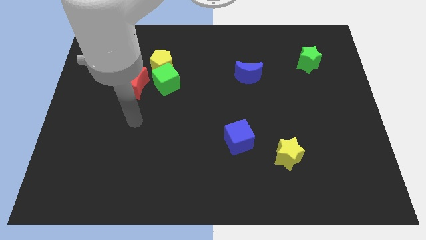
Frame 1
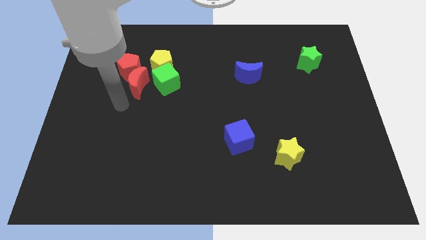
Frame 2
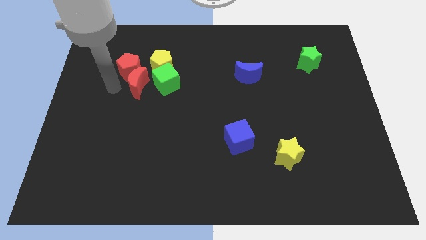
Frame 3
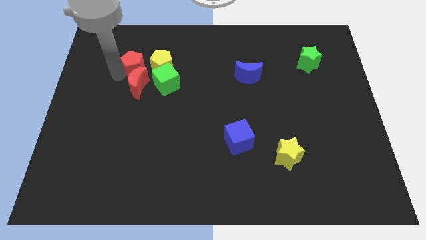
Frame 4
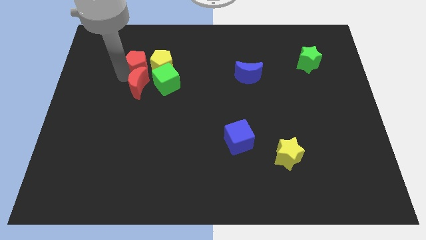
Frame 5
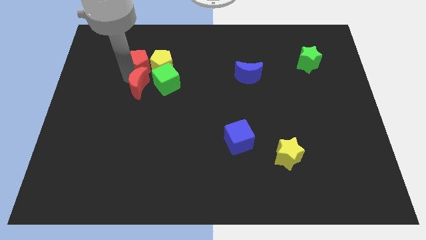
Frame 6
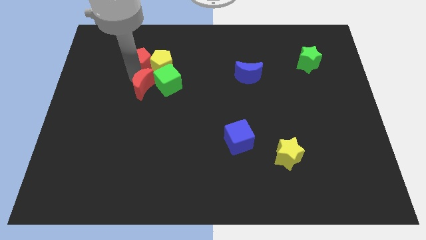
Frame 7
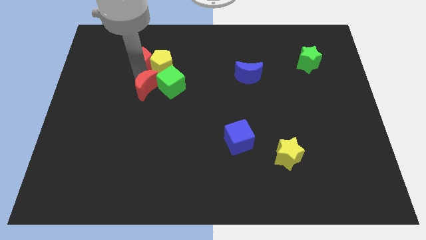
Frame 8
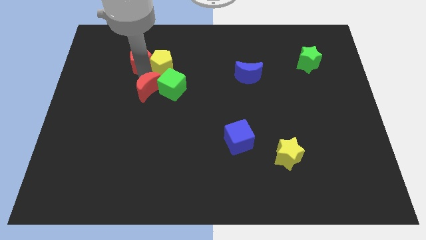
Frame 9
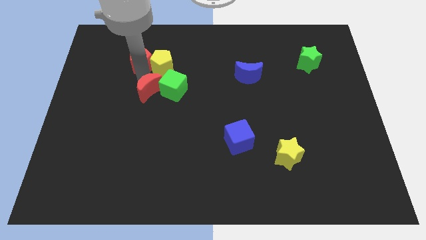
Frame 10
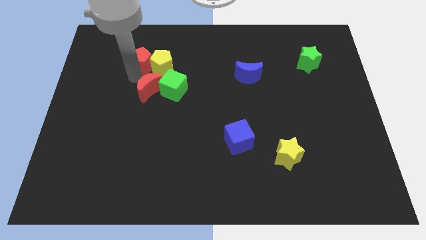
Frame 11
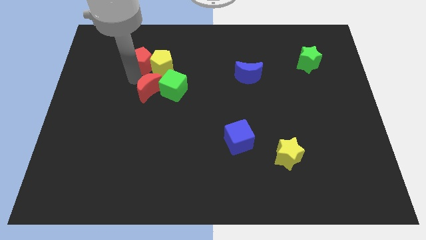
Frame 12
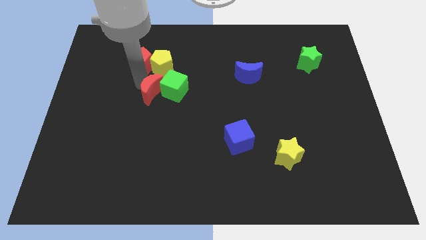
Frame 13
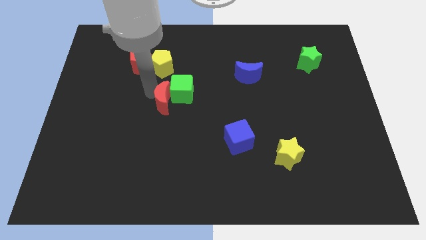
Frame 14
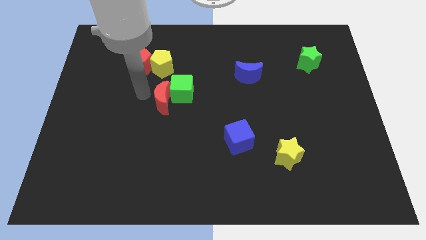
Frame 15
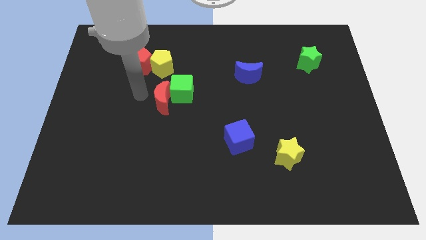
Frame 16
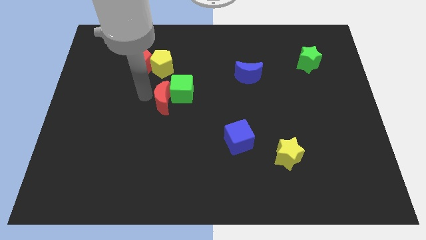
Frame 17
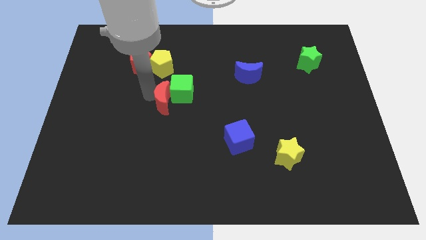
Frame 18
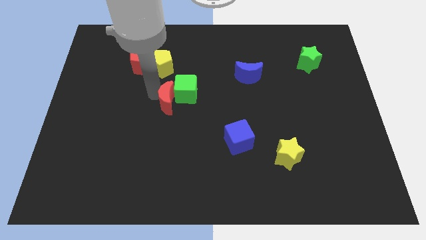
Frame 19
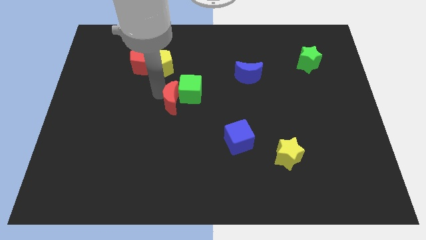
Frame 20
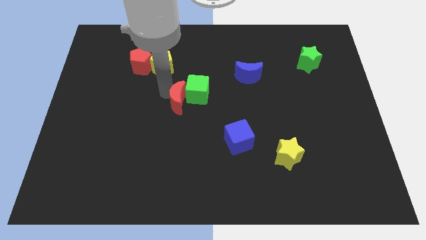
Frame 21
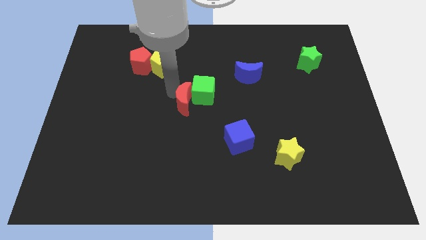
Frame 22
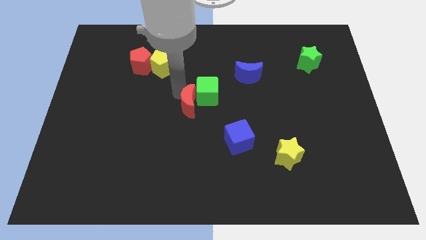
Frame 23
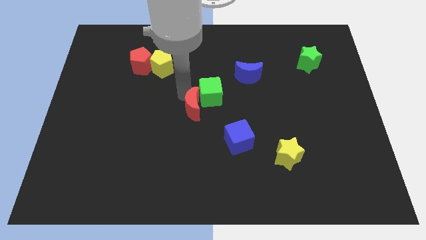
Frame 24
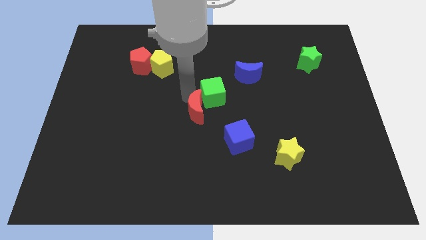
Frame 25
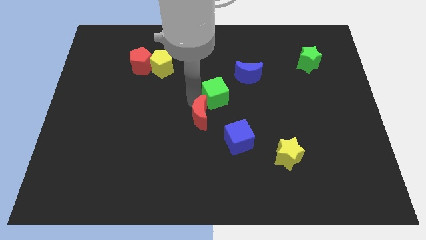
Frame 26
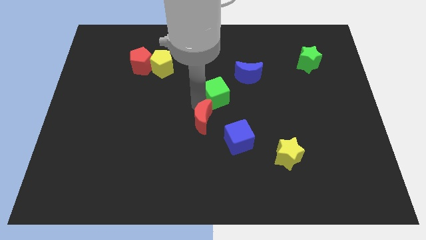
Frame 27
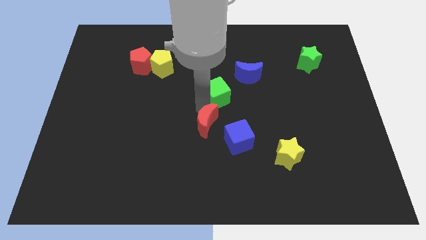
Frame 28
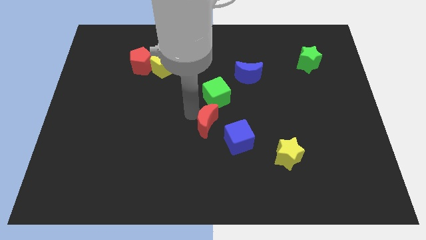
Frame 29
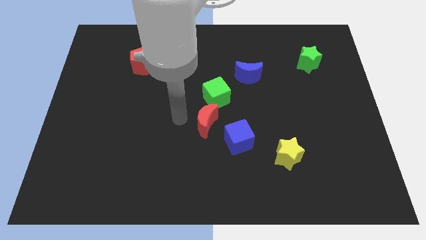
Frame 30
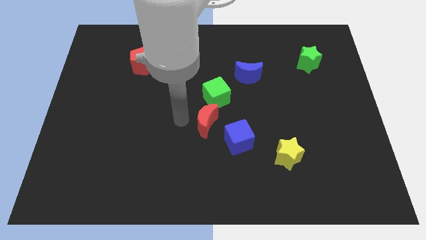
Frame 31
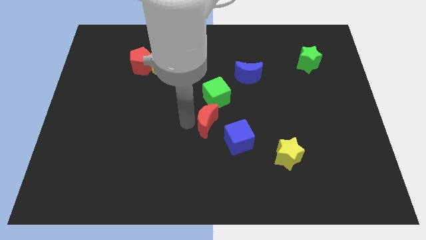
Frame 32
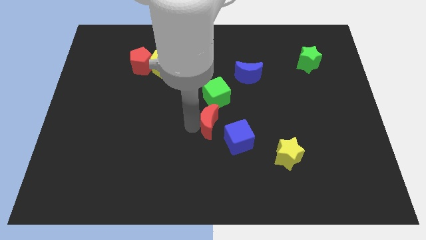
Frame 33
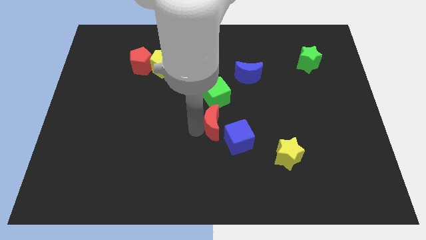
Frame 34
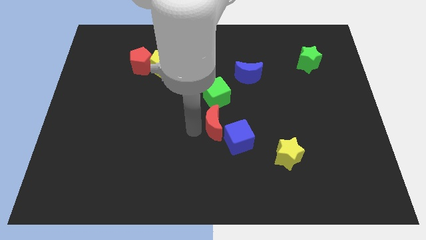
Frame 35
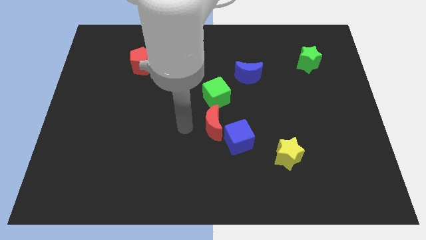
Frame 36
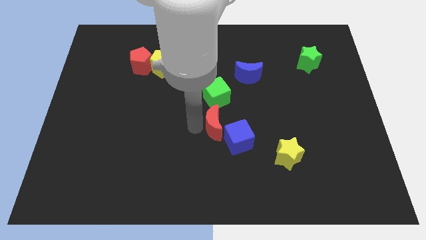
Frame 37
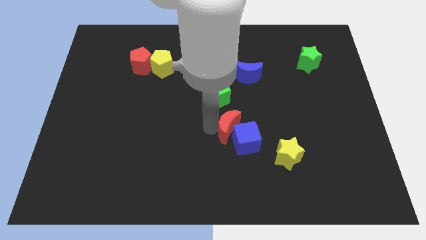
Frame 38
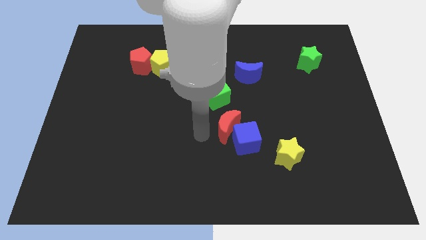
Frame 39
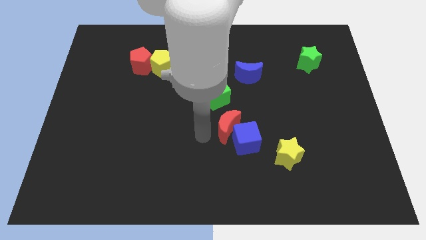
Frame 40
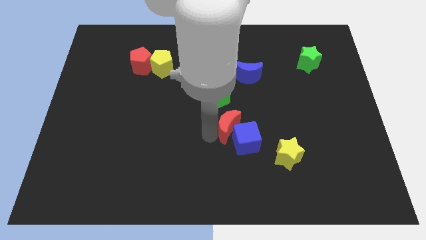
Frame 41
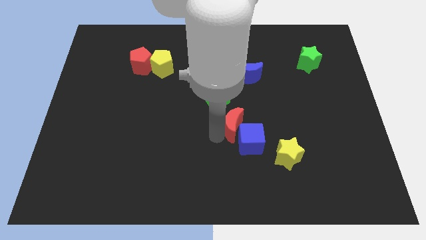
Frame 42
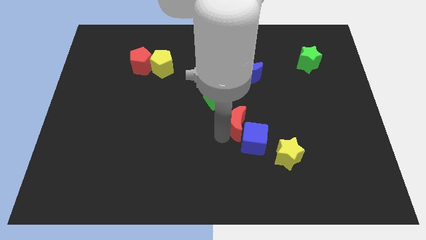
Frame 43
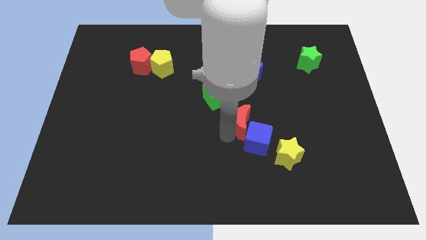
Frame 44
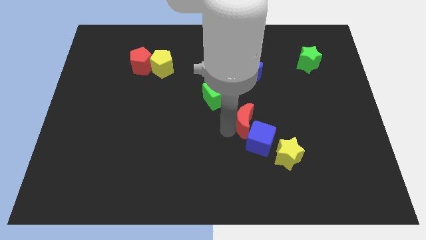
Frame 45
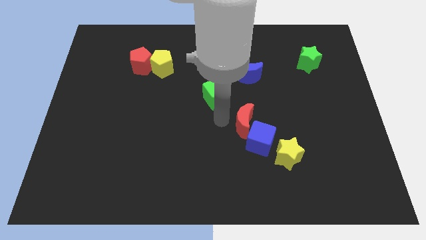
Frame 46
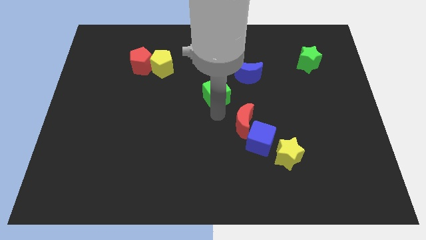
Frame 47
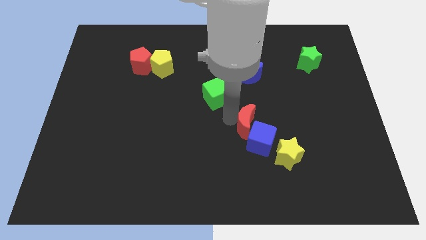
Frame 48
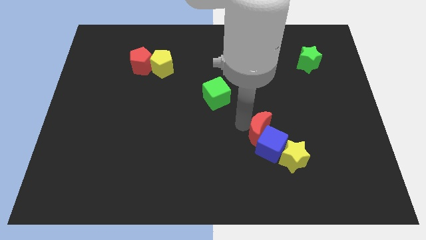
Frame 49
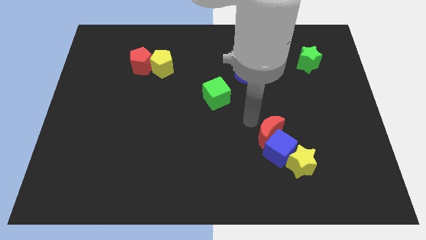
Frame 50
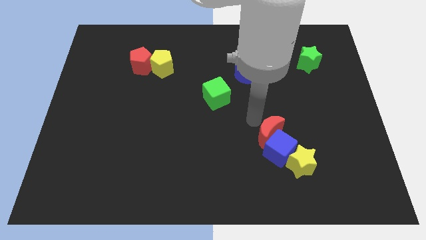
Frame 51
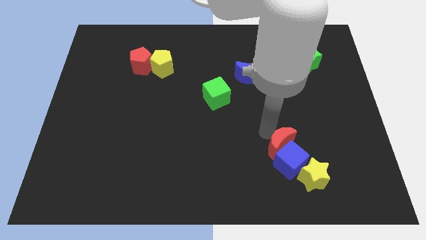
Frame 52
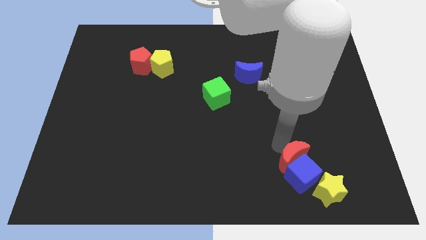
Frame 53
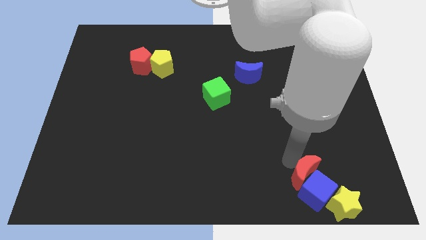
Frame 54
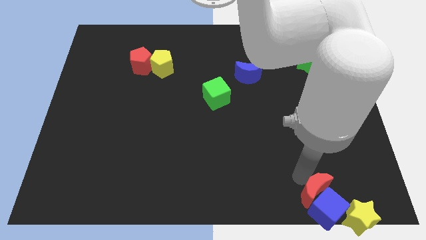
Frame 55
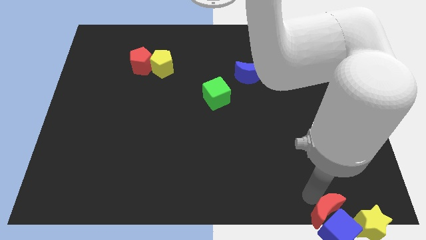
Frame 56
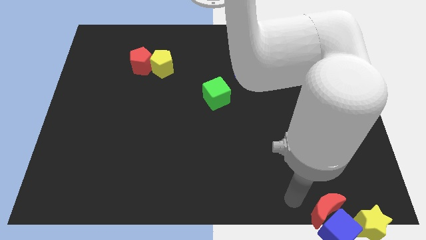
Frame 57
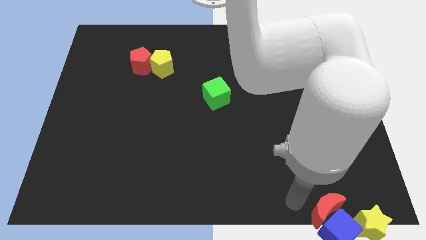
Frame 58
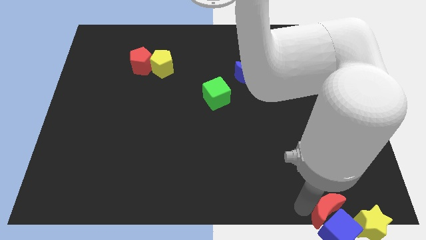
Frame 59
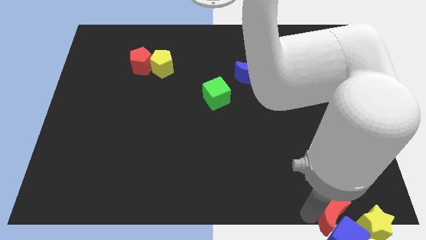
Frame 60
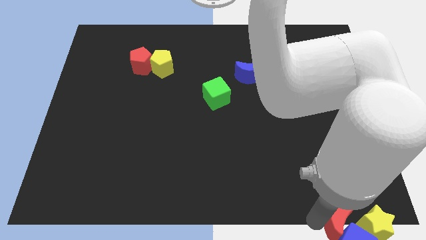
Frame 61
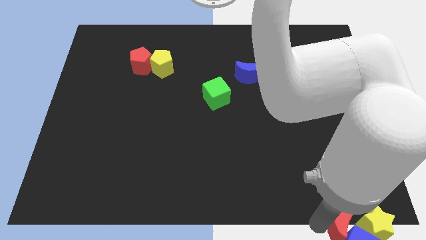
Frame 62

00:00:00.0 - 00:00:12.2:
slide the red moon close to the yellow star
